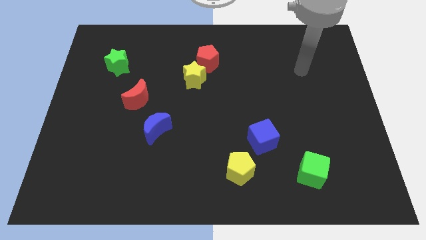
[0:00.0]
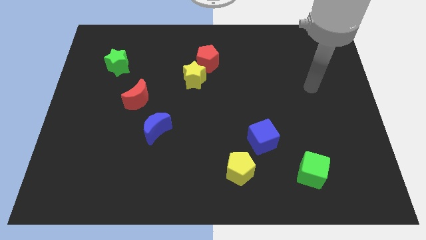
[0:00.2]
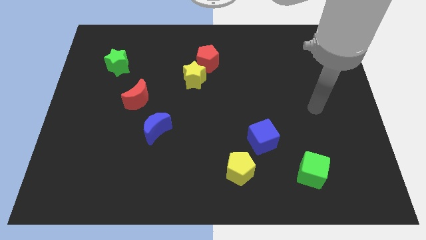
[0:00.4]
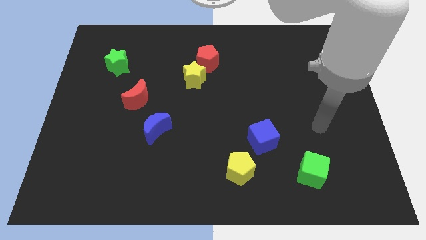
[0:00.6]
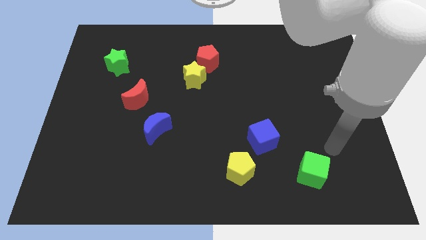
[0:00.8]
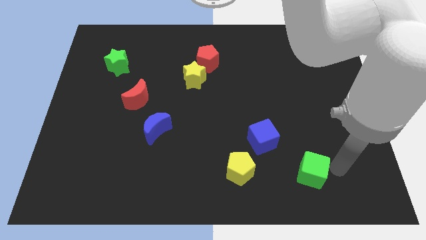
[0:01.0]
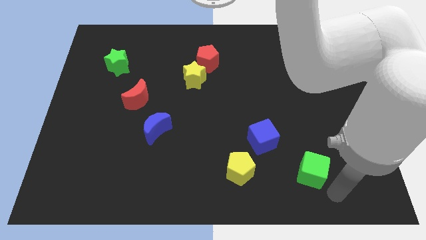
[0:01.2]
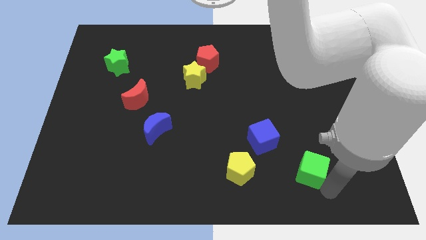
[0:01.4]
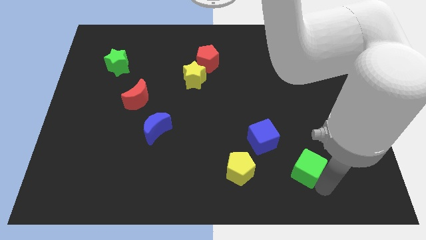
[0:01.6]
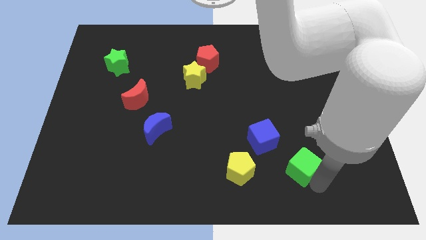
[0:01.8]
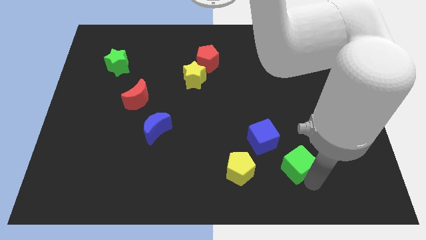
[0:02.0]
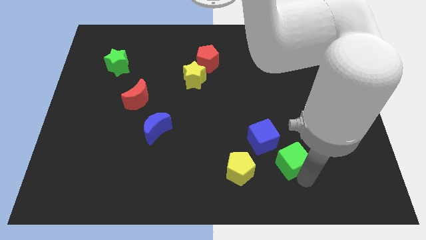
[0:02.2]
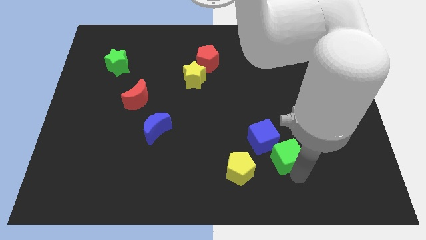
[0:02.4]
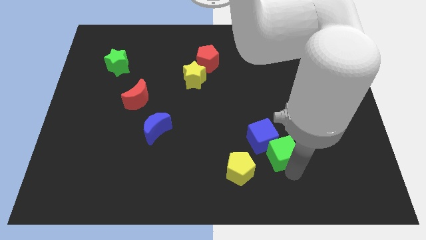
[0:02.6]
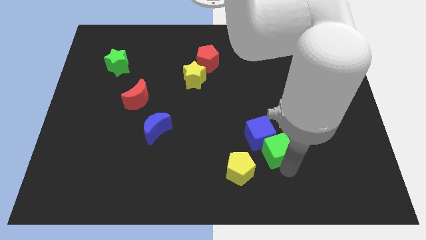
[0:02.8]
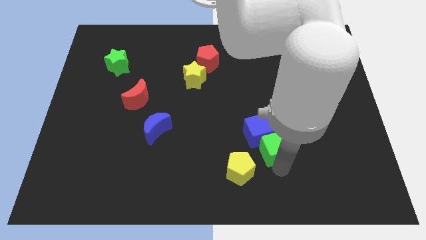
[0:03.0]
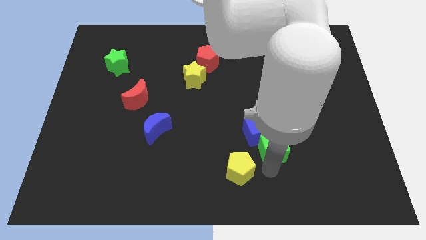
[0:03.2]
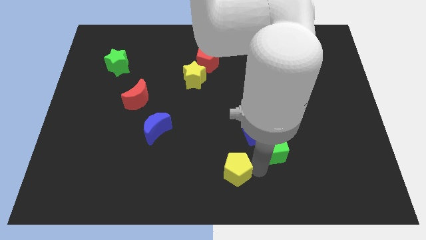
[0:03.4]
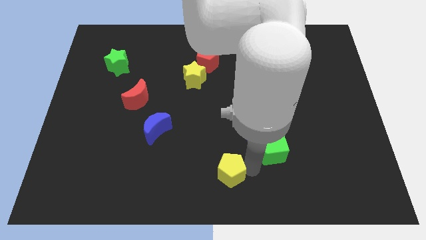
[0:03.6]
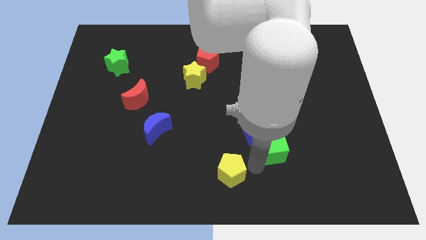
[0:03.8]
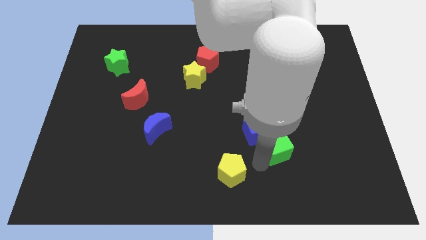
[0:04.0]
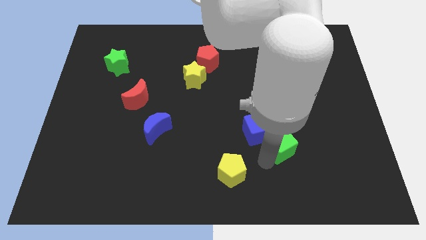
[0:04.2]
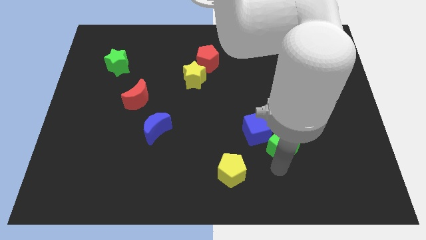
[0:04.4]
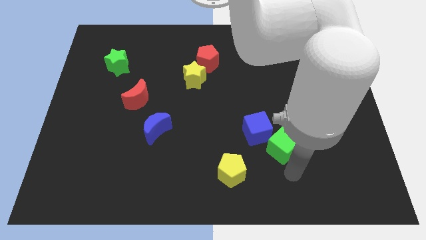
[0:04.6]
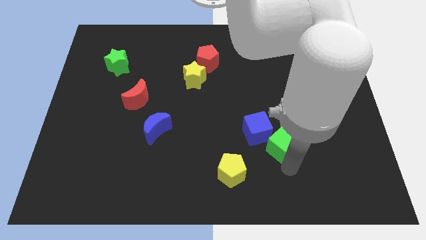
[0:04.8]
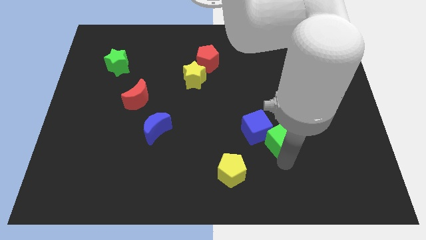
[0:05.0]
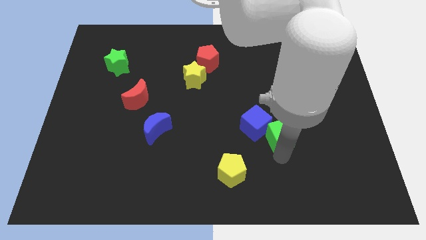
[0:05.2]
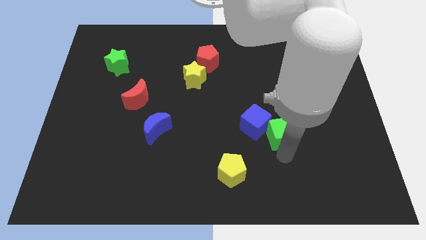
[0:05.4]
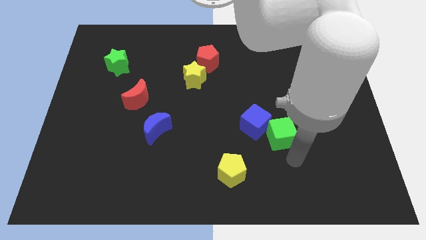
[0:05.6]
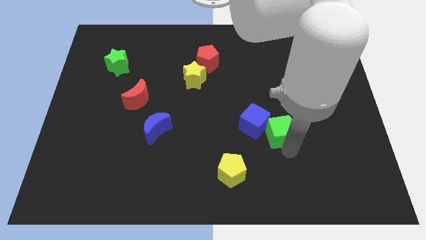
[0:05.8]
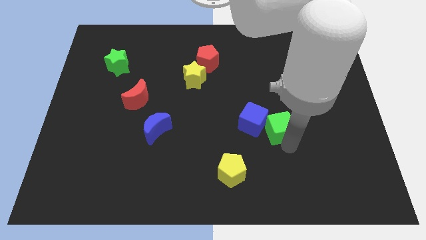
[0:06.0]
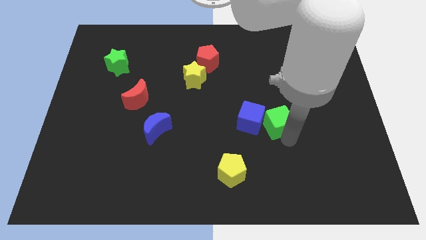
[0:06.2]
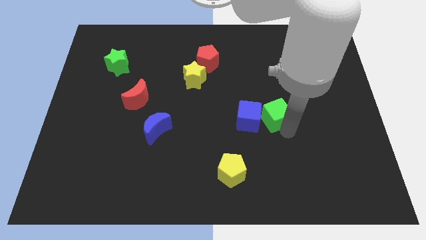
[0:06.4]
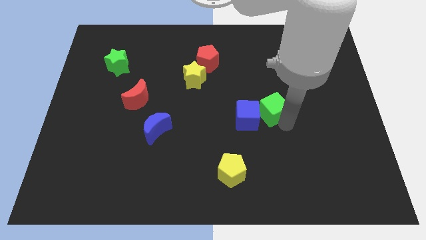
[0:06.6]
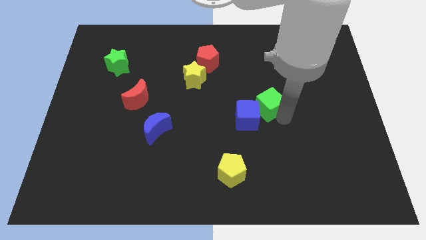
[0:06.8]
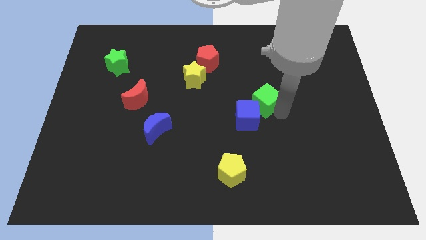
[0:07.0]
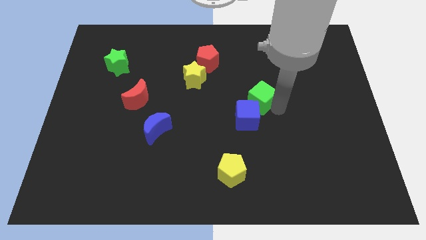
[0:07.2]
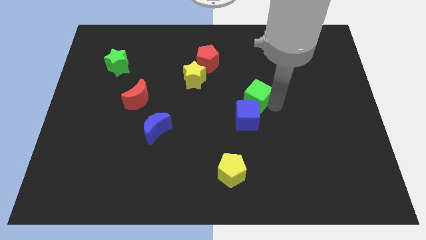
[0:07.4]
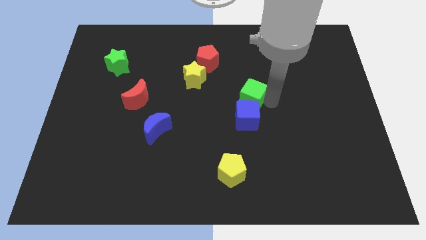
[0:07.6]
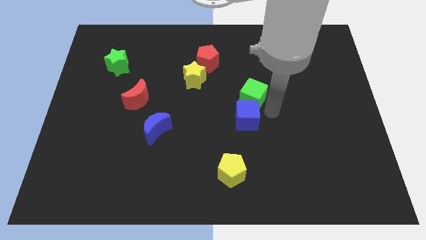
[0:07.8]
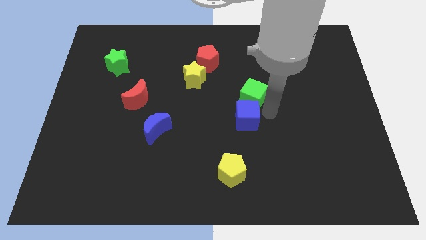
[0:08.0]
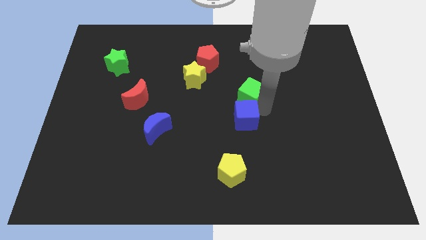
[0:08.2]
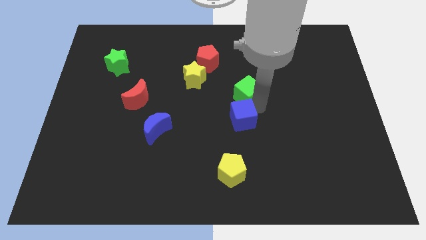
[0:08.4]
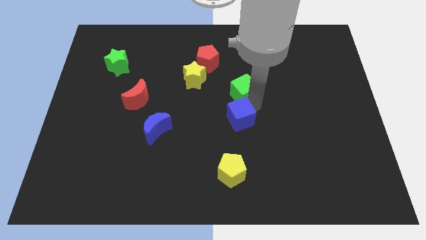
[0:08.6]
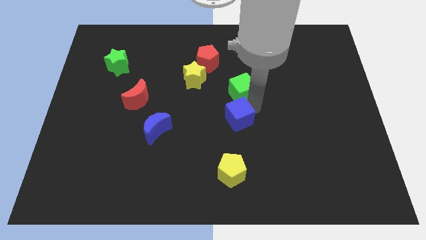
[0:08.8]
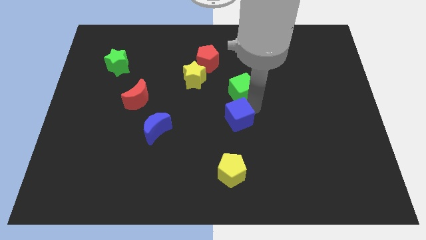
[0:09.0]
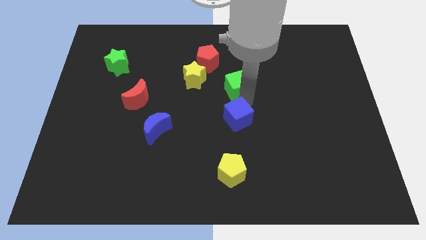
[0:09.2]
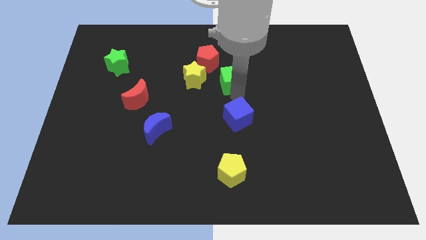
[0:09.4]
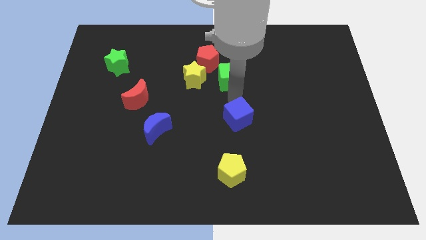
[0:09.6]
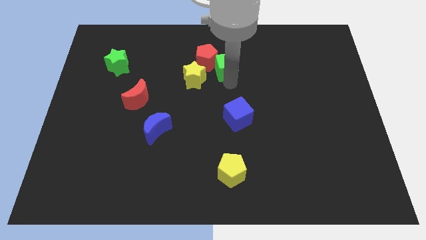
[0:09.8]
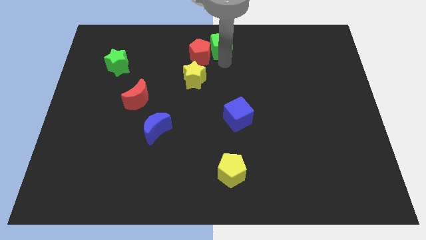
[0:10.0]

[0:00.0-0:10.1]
push the green cube to the top side

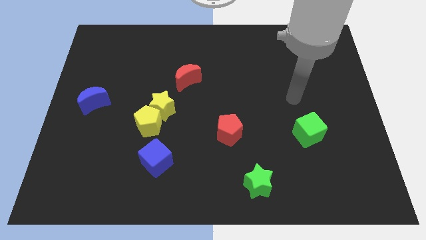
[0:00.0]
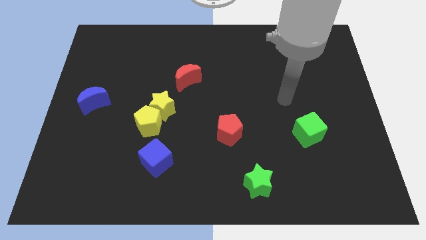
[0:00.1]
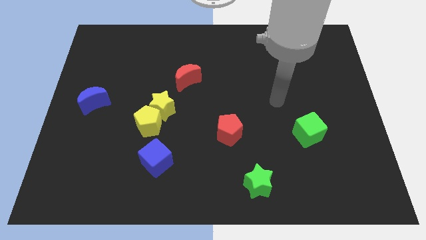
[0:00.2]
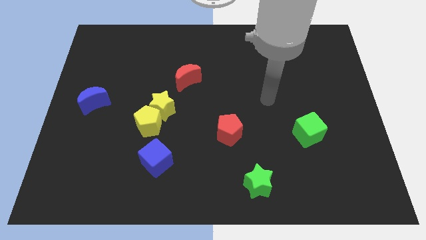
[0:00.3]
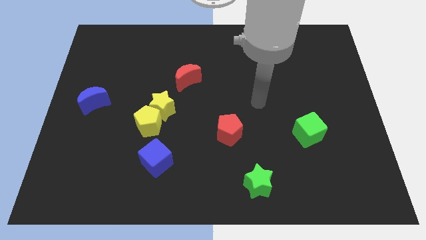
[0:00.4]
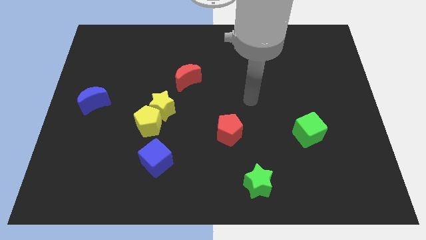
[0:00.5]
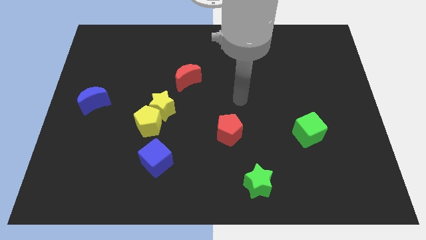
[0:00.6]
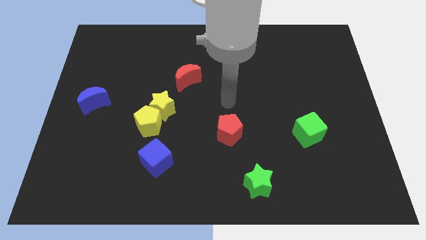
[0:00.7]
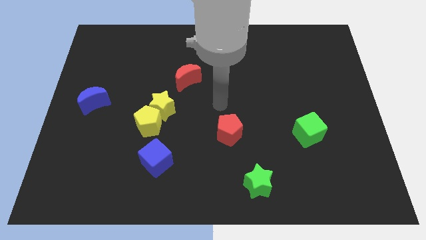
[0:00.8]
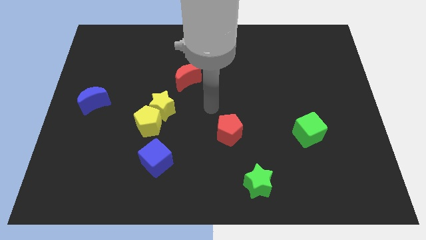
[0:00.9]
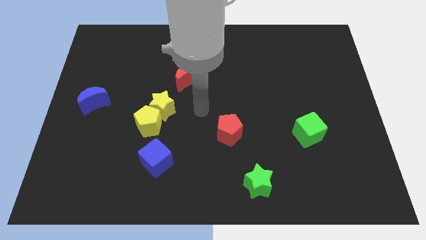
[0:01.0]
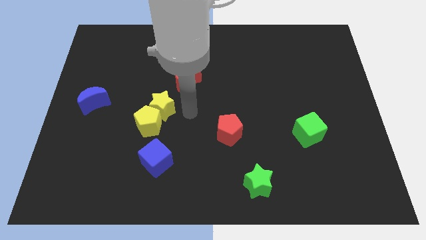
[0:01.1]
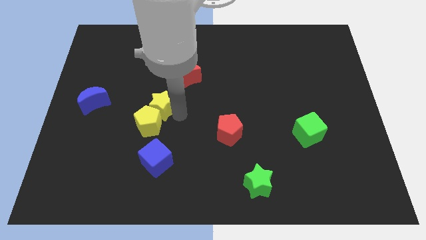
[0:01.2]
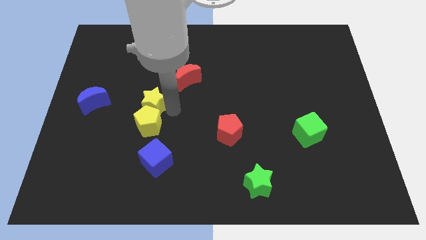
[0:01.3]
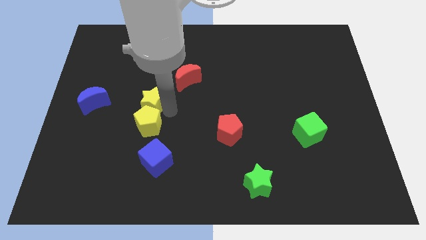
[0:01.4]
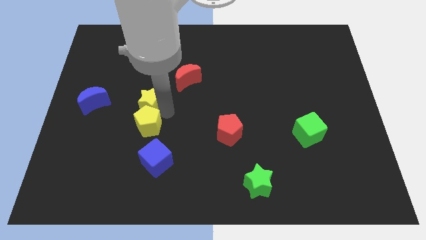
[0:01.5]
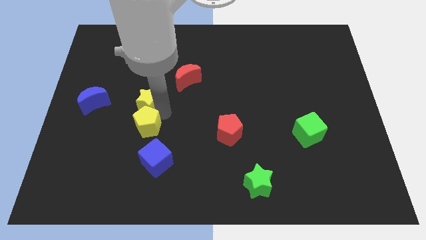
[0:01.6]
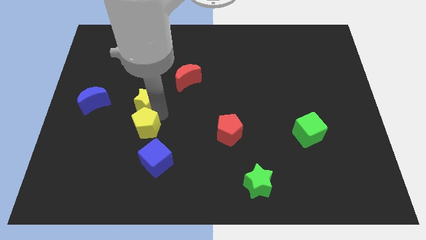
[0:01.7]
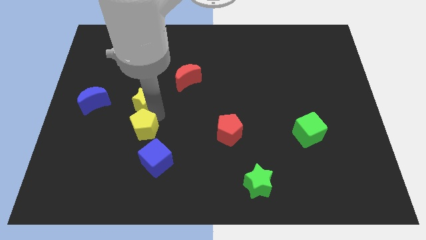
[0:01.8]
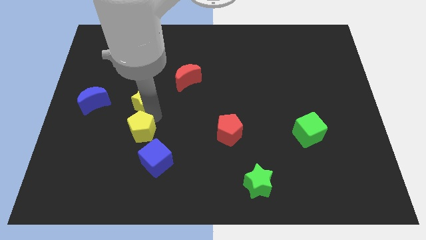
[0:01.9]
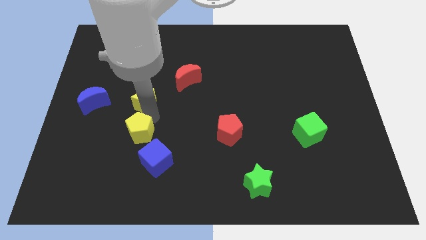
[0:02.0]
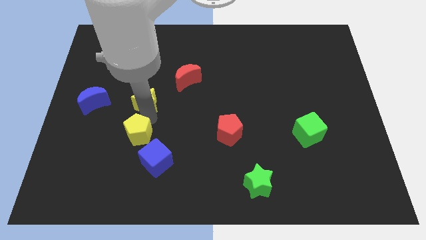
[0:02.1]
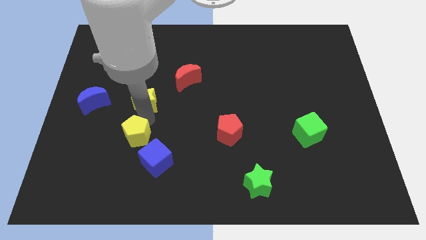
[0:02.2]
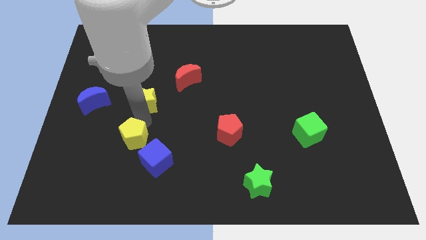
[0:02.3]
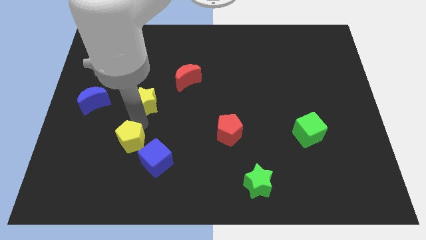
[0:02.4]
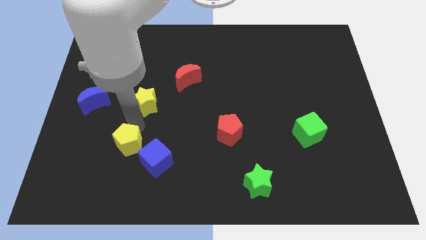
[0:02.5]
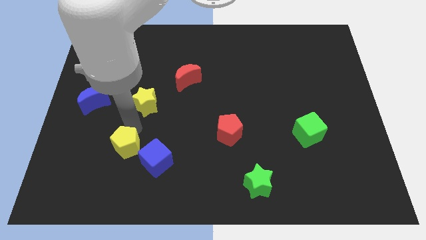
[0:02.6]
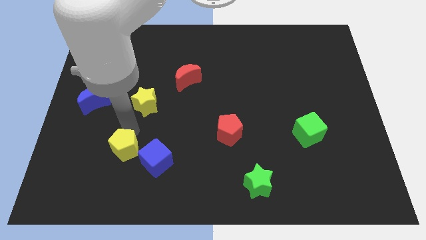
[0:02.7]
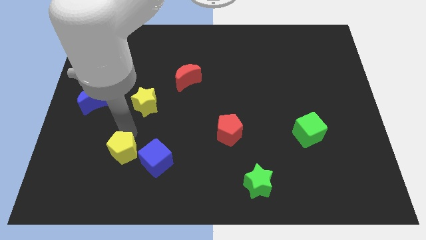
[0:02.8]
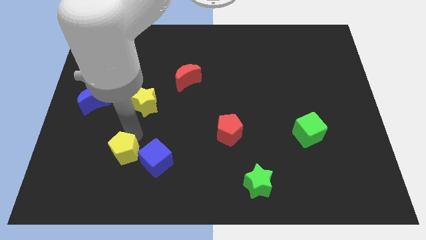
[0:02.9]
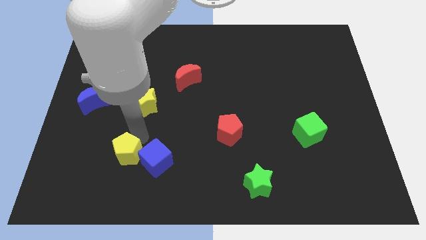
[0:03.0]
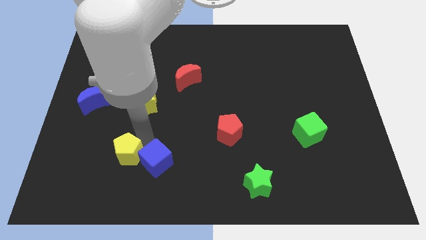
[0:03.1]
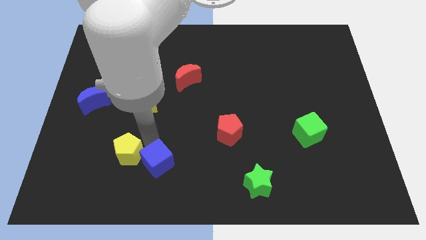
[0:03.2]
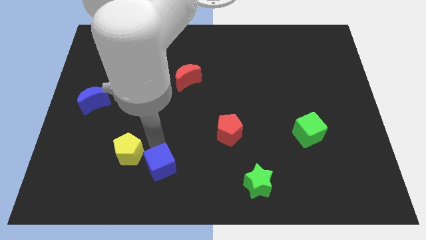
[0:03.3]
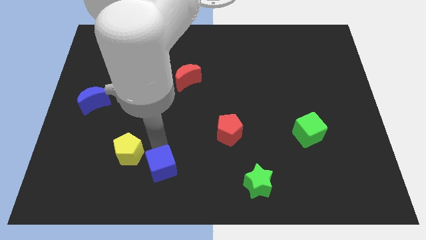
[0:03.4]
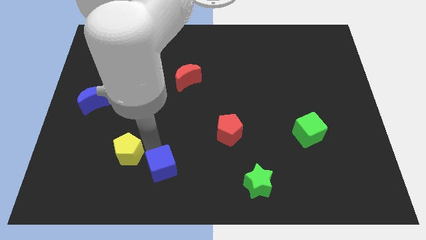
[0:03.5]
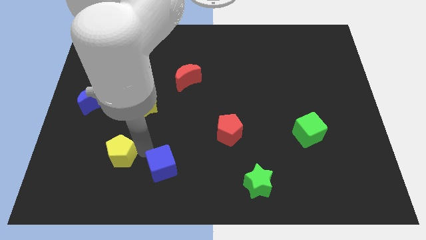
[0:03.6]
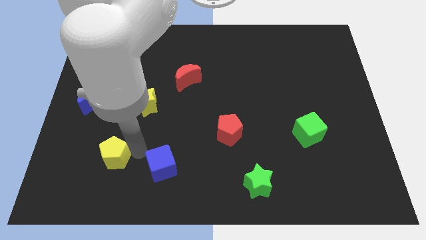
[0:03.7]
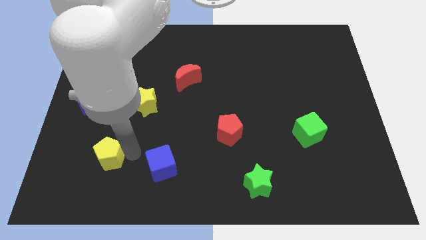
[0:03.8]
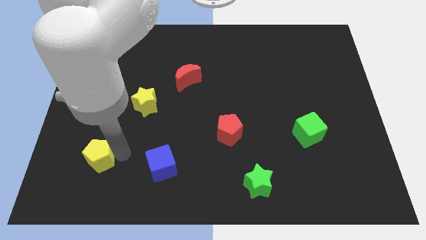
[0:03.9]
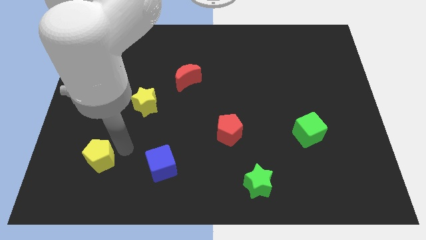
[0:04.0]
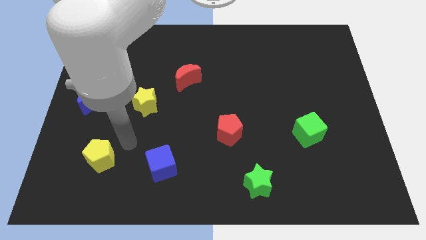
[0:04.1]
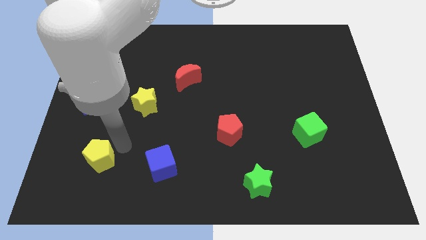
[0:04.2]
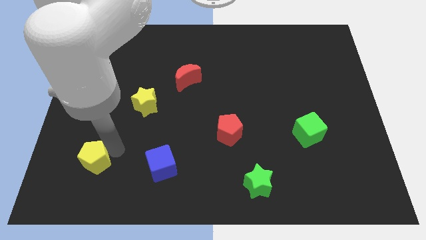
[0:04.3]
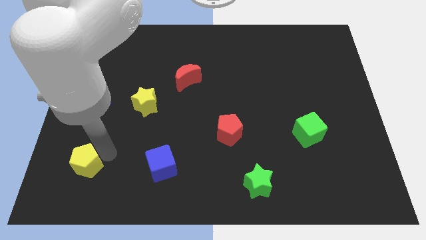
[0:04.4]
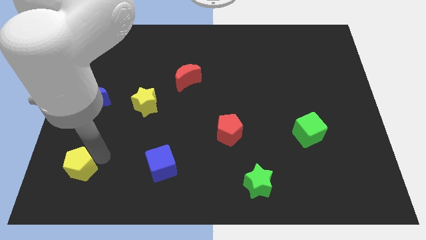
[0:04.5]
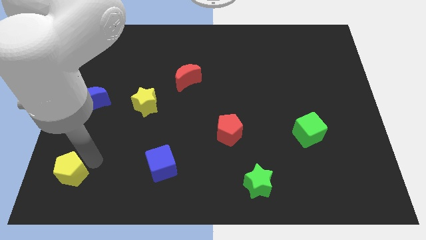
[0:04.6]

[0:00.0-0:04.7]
slide the yellow pentagon to the bottom left of the board
